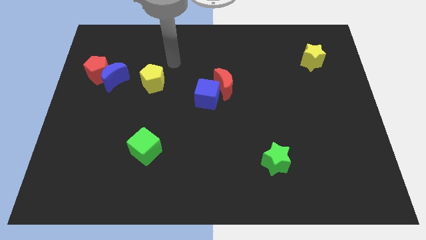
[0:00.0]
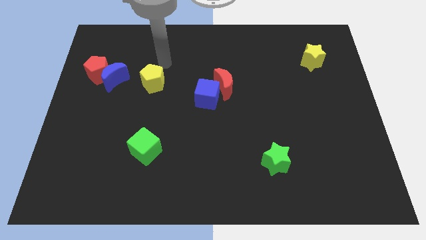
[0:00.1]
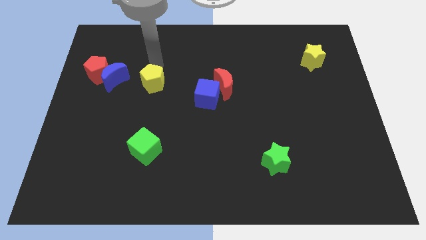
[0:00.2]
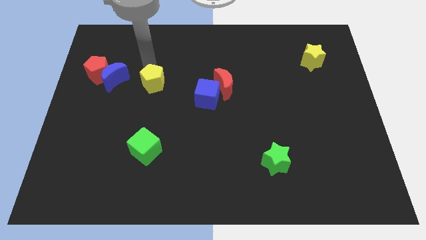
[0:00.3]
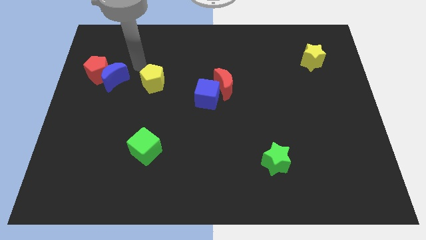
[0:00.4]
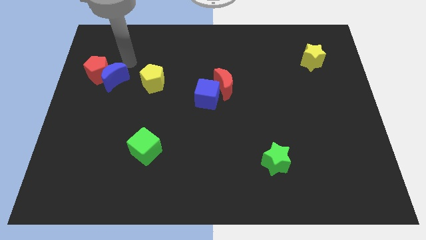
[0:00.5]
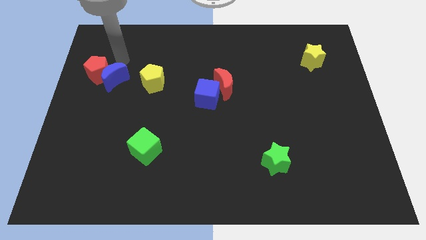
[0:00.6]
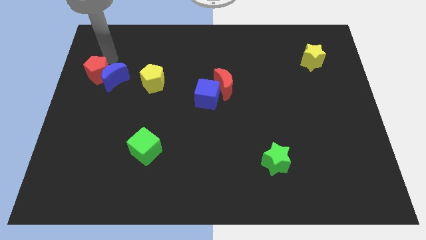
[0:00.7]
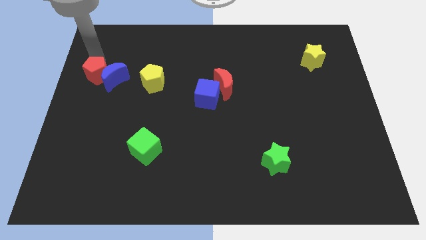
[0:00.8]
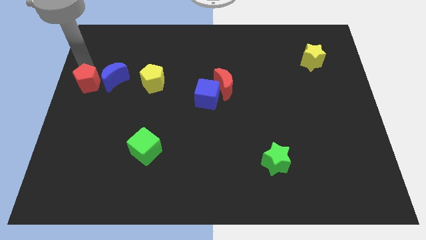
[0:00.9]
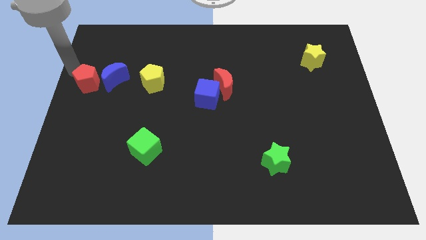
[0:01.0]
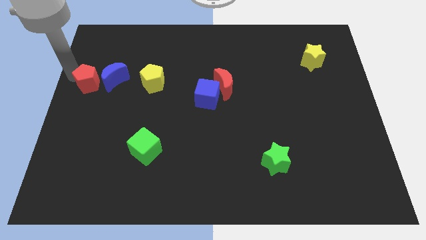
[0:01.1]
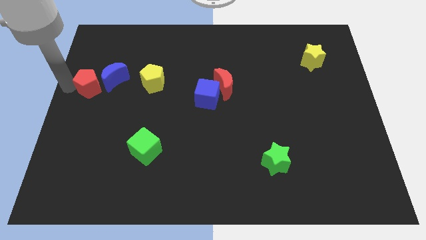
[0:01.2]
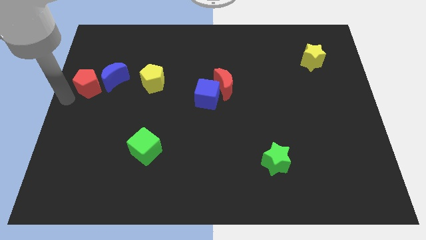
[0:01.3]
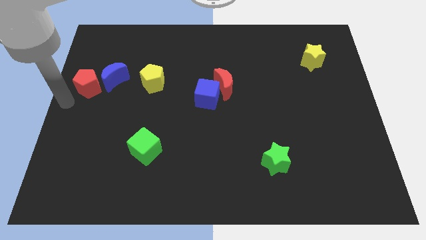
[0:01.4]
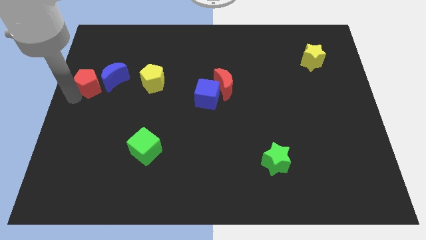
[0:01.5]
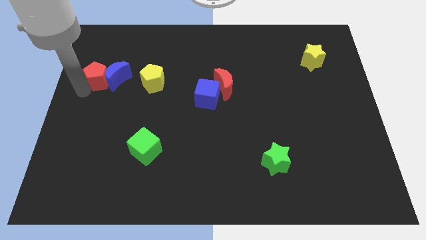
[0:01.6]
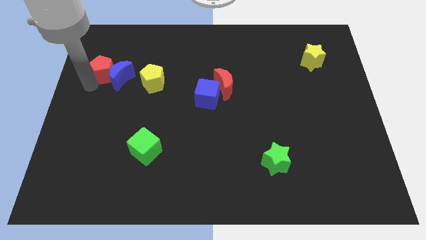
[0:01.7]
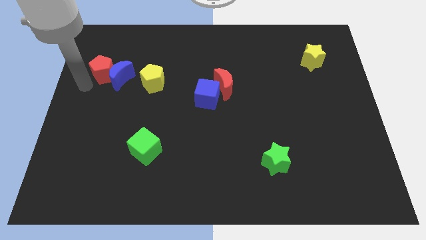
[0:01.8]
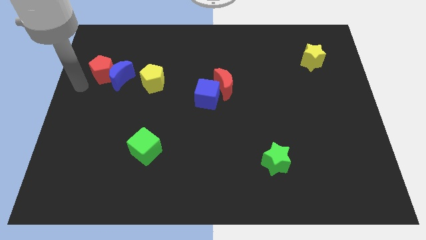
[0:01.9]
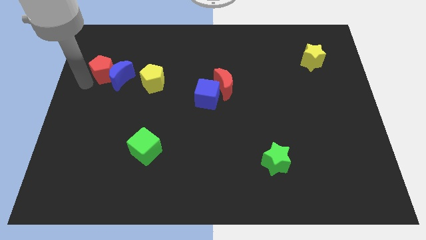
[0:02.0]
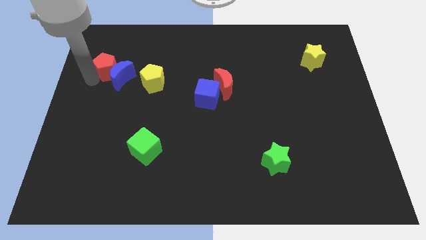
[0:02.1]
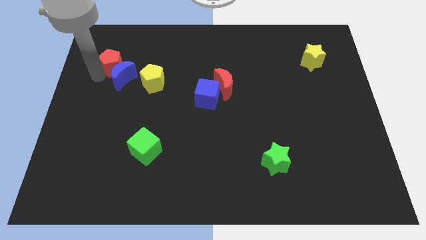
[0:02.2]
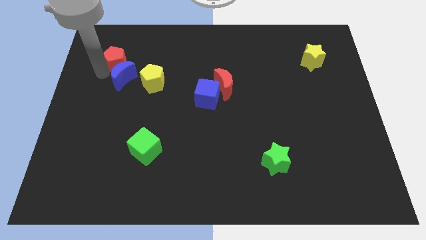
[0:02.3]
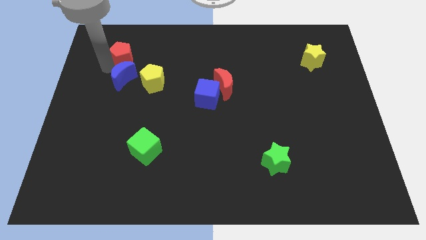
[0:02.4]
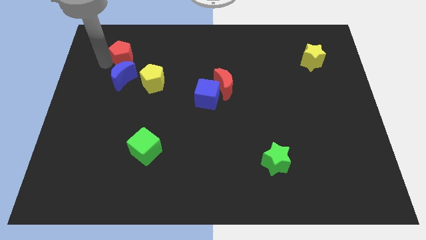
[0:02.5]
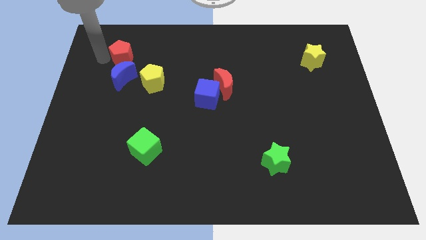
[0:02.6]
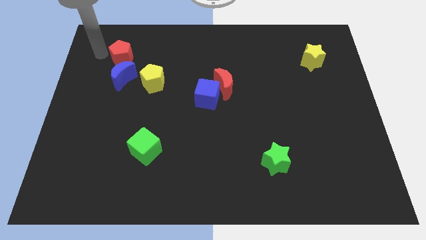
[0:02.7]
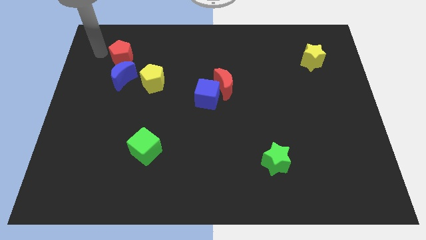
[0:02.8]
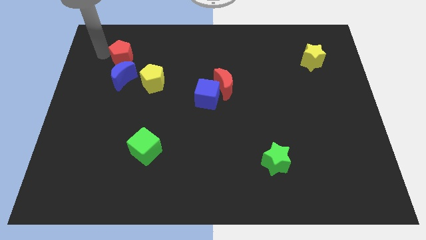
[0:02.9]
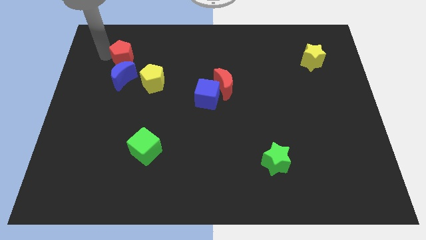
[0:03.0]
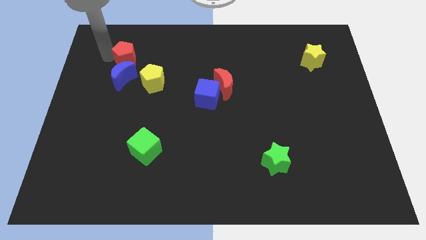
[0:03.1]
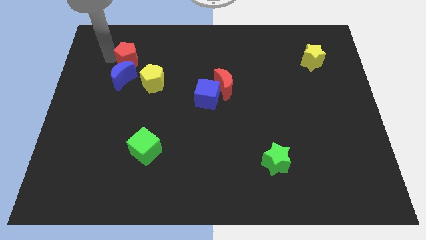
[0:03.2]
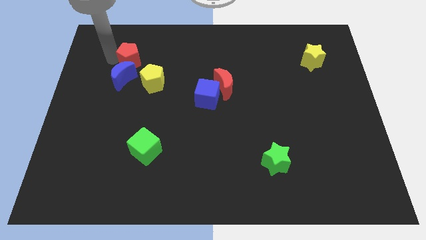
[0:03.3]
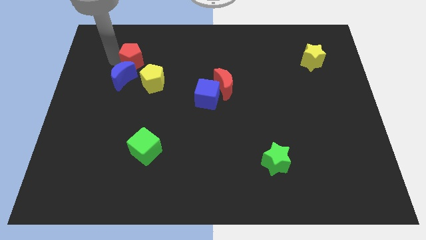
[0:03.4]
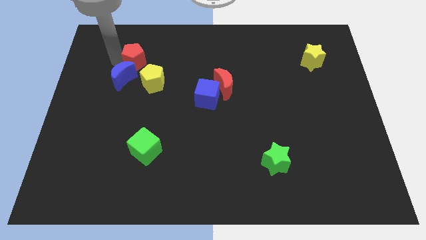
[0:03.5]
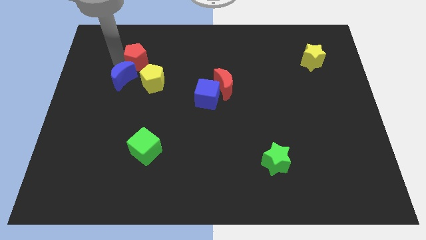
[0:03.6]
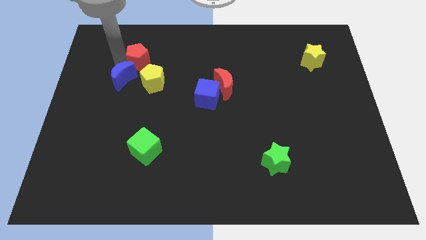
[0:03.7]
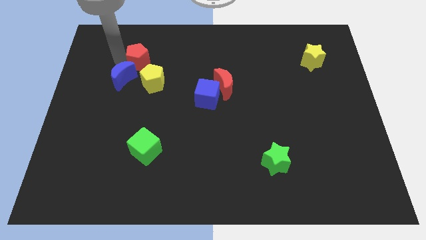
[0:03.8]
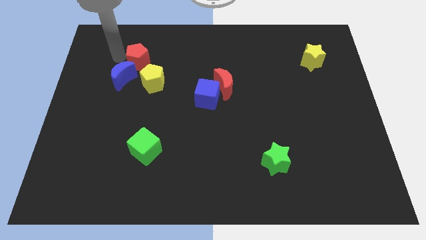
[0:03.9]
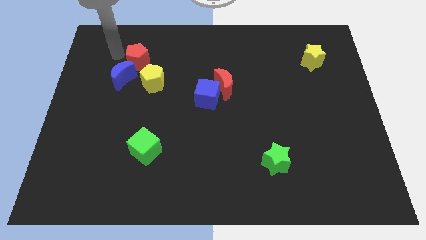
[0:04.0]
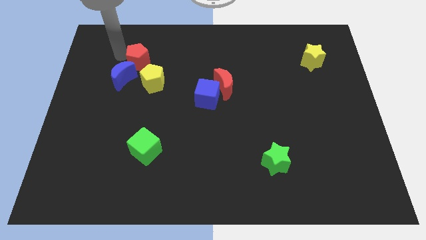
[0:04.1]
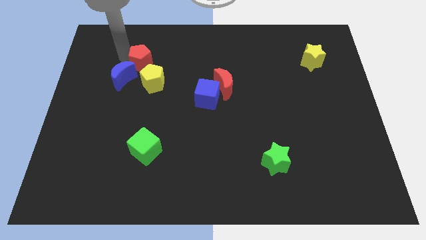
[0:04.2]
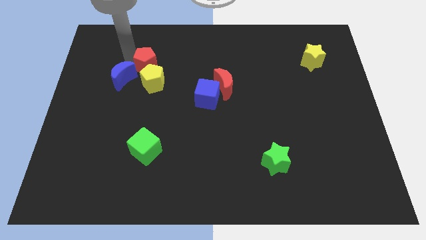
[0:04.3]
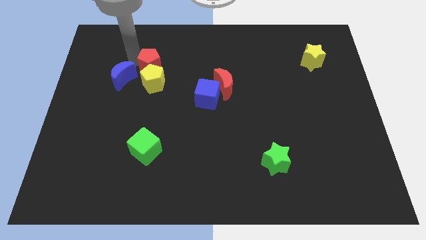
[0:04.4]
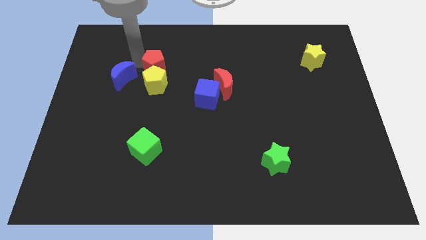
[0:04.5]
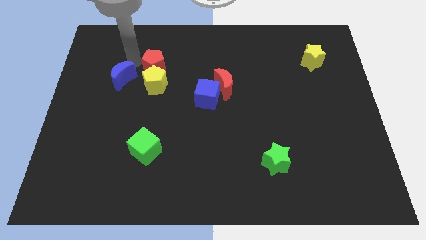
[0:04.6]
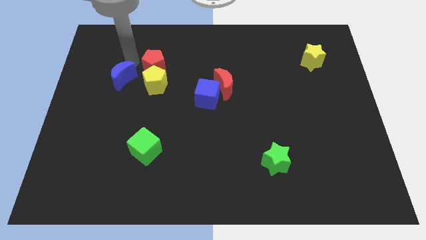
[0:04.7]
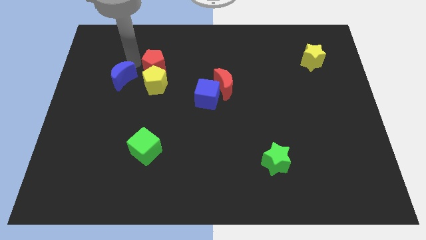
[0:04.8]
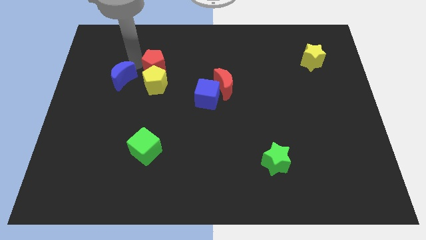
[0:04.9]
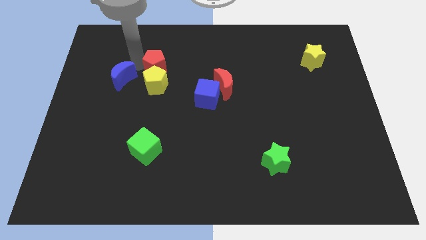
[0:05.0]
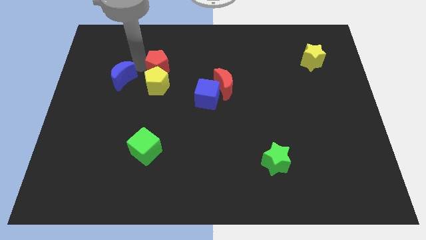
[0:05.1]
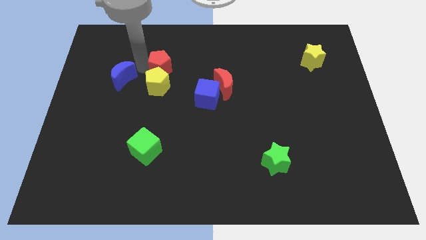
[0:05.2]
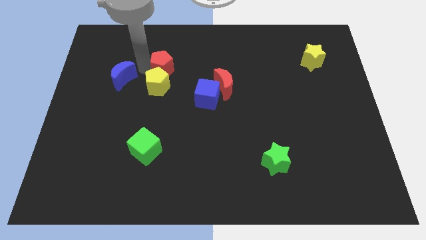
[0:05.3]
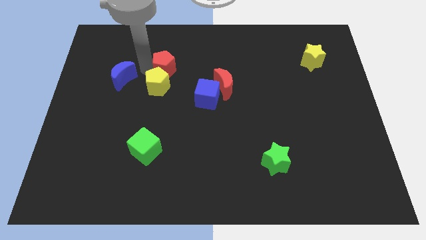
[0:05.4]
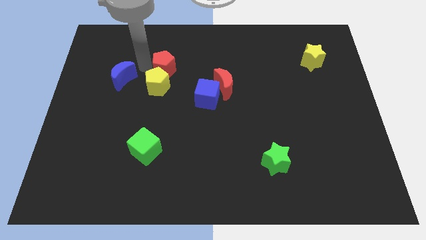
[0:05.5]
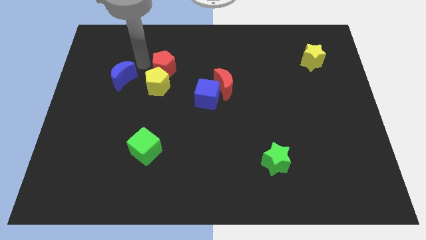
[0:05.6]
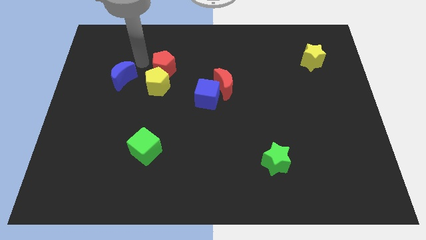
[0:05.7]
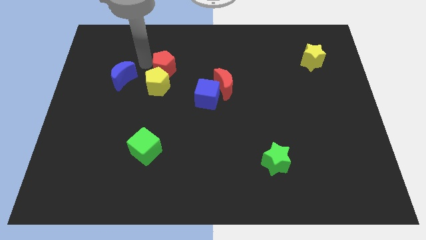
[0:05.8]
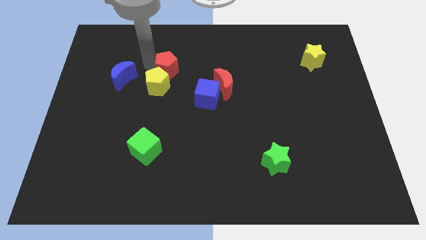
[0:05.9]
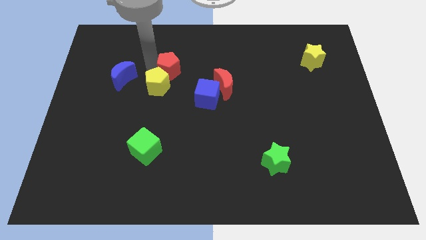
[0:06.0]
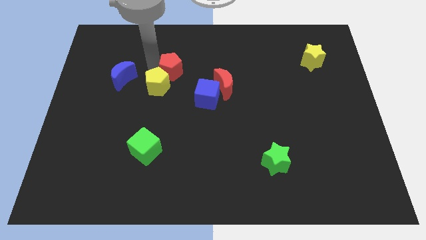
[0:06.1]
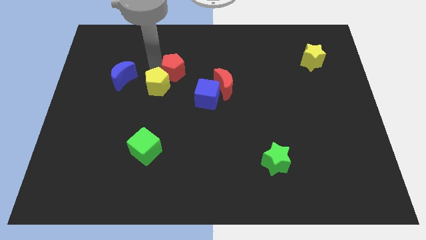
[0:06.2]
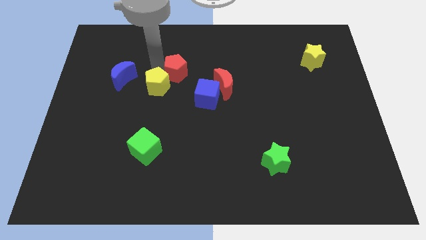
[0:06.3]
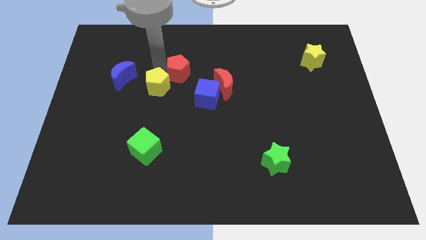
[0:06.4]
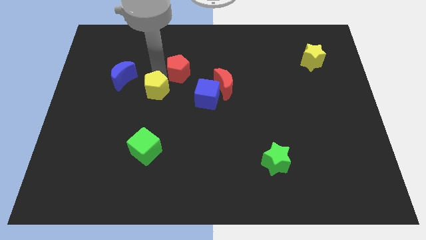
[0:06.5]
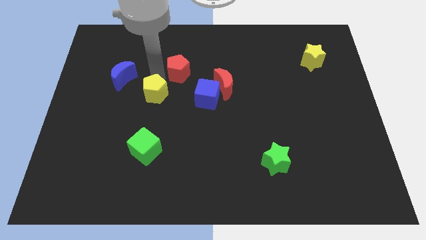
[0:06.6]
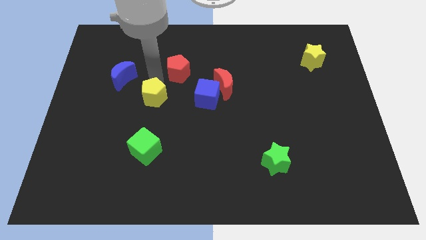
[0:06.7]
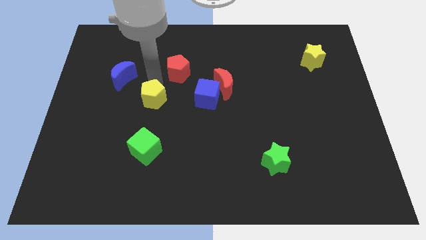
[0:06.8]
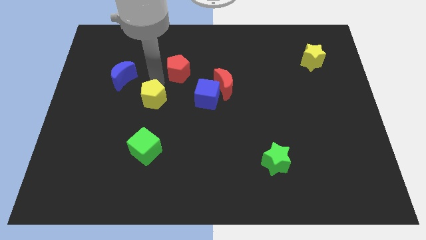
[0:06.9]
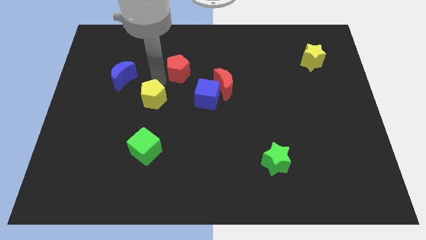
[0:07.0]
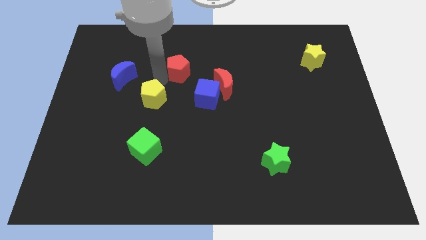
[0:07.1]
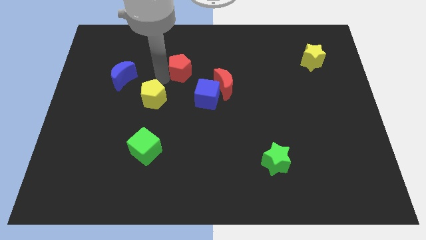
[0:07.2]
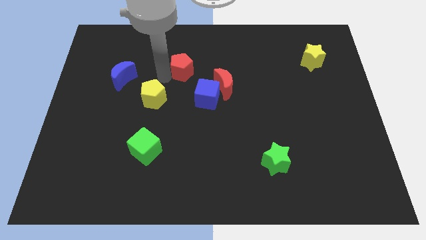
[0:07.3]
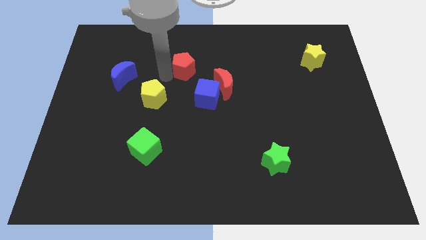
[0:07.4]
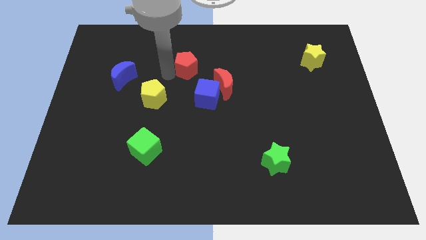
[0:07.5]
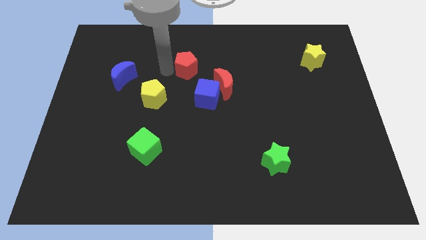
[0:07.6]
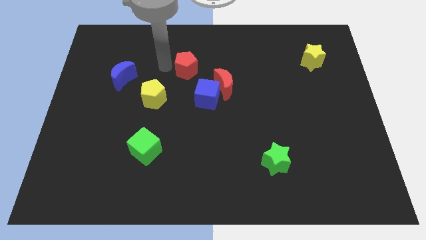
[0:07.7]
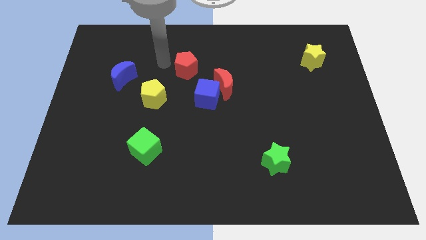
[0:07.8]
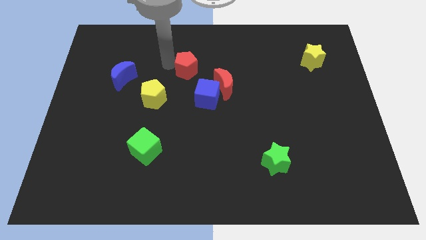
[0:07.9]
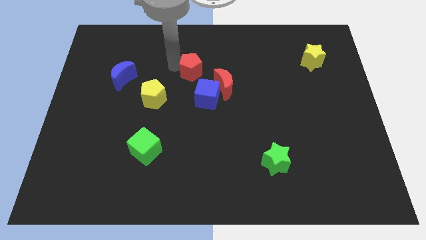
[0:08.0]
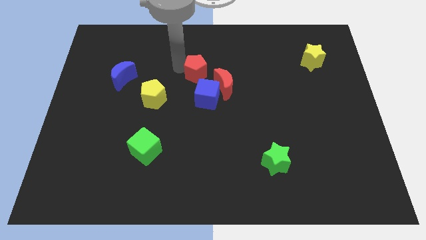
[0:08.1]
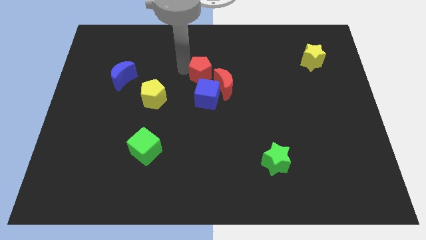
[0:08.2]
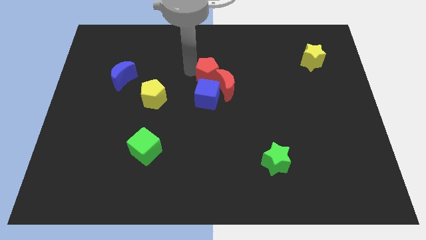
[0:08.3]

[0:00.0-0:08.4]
push the red pentagon close to the red moon
